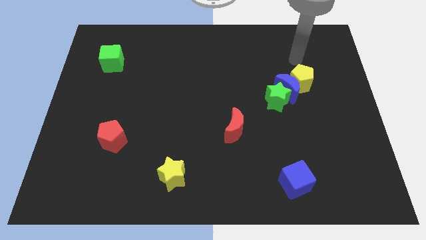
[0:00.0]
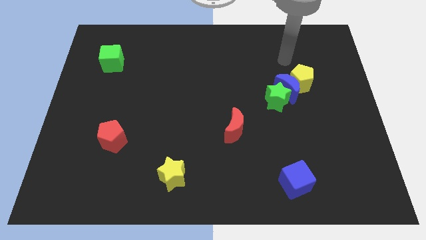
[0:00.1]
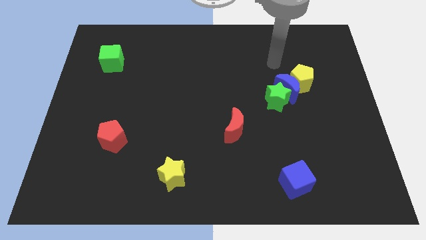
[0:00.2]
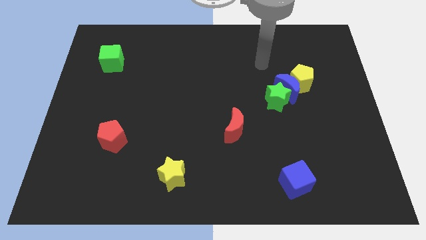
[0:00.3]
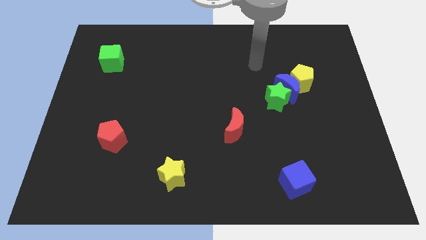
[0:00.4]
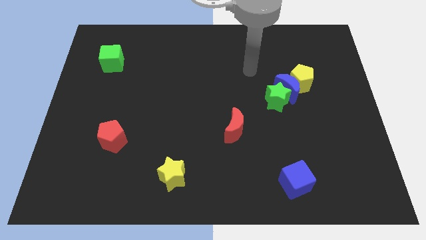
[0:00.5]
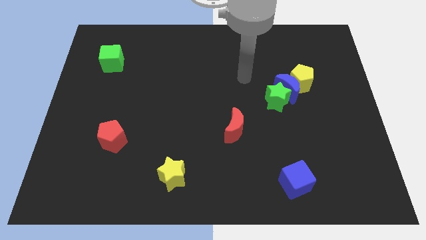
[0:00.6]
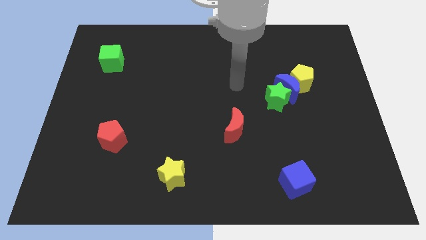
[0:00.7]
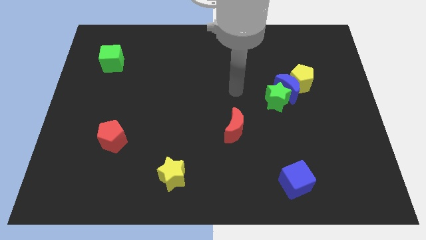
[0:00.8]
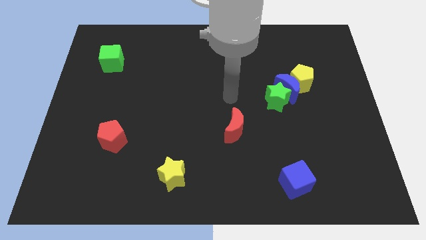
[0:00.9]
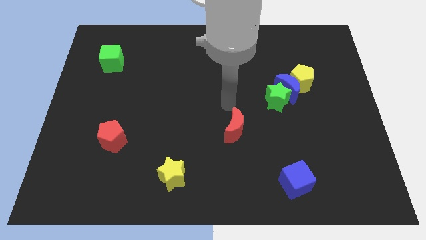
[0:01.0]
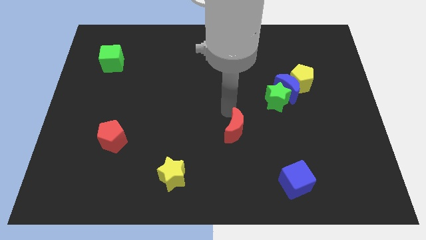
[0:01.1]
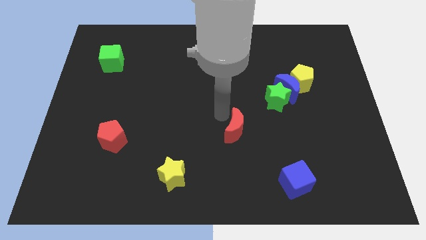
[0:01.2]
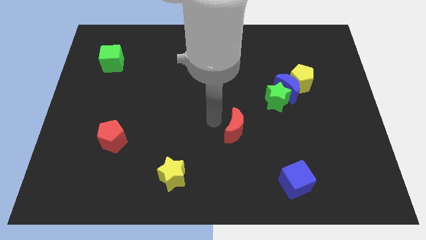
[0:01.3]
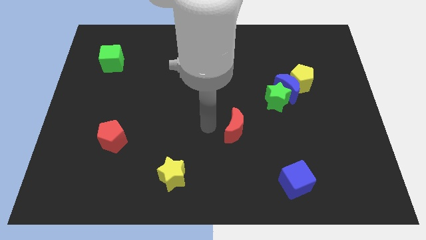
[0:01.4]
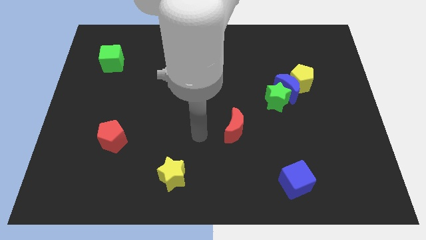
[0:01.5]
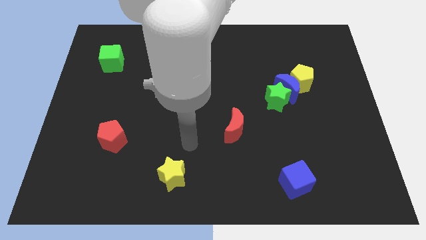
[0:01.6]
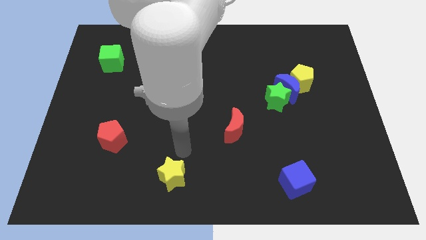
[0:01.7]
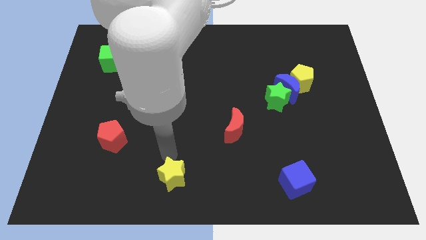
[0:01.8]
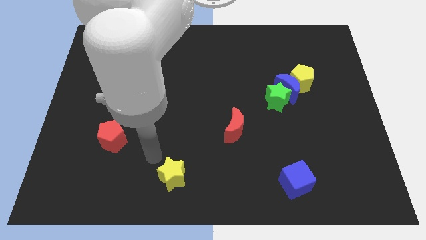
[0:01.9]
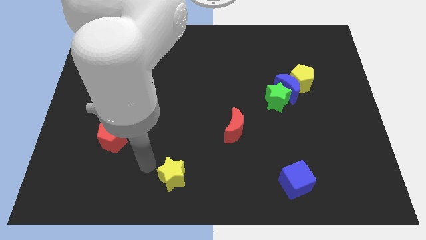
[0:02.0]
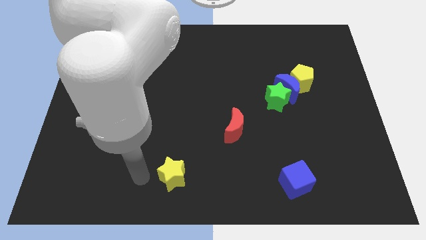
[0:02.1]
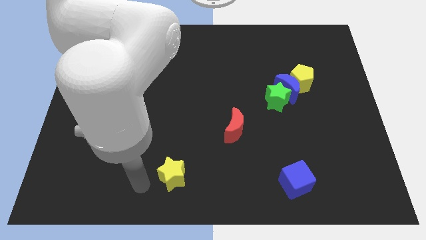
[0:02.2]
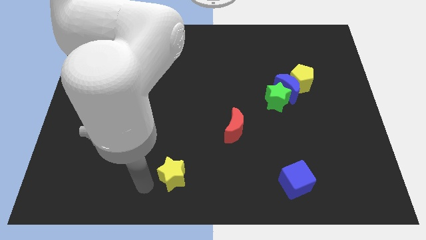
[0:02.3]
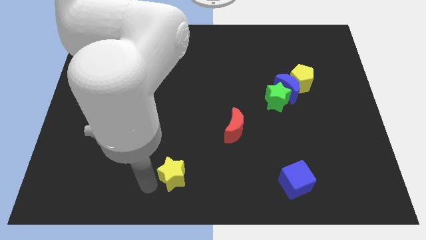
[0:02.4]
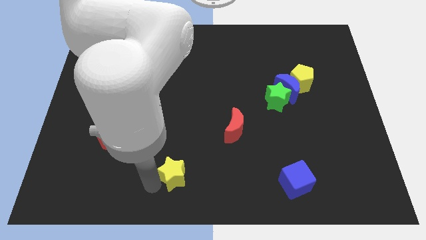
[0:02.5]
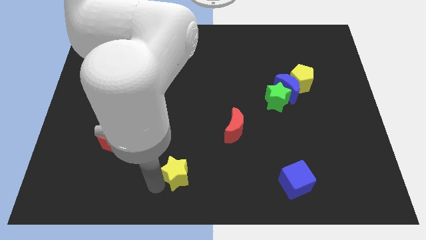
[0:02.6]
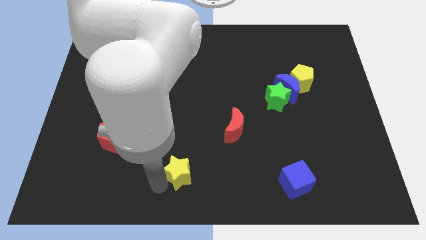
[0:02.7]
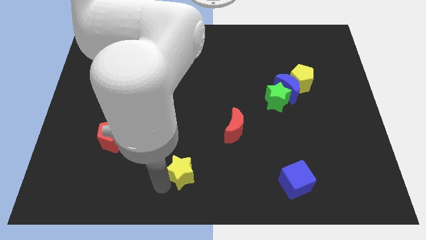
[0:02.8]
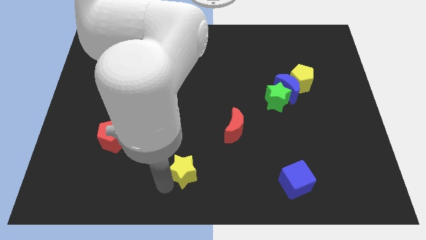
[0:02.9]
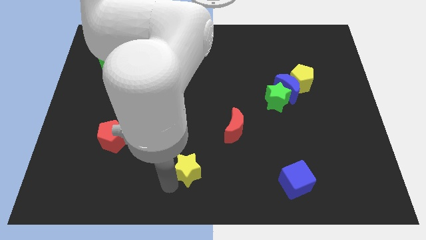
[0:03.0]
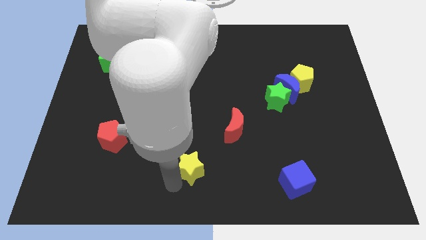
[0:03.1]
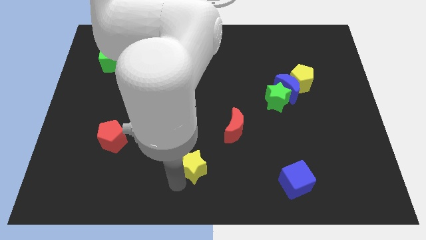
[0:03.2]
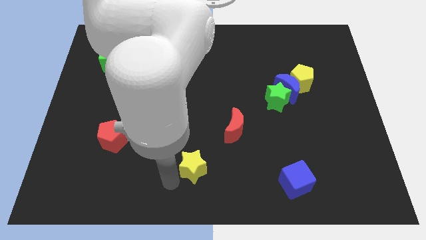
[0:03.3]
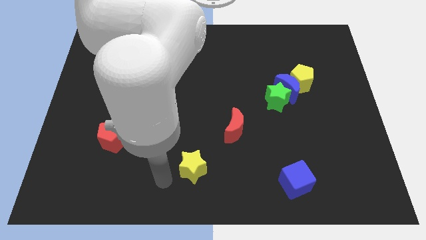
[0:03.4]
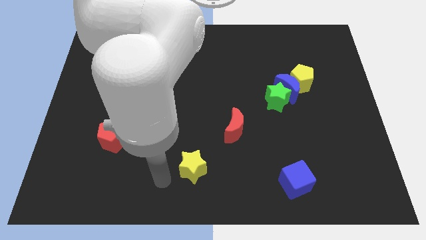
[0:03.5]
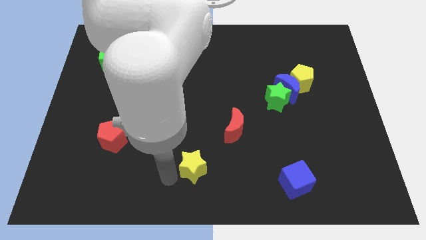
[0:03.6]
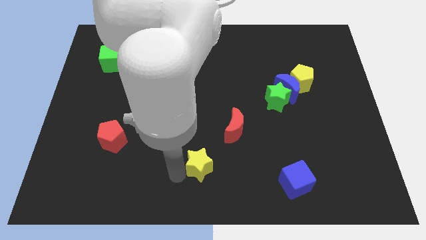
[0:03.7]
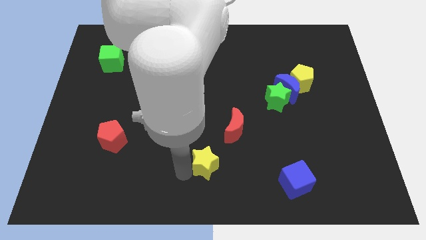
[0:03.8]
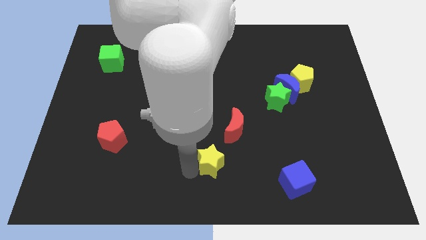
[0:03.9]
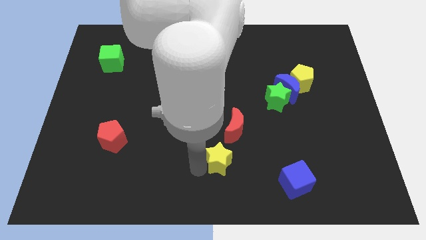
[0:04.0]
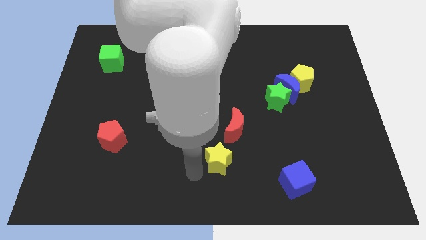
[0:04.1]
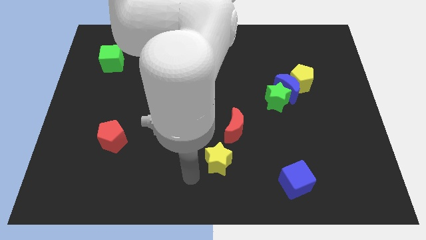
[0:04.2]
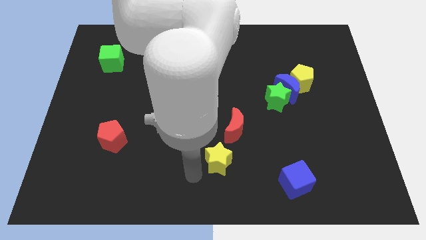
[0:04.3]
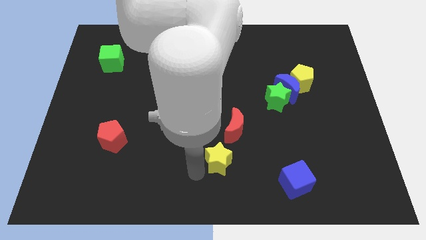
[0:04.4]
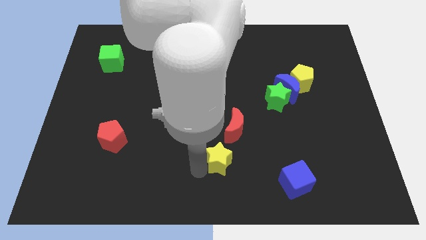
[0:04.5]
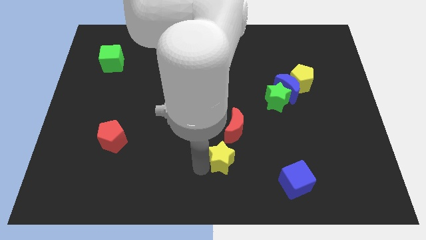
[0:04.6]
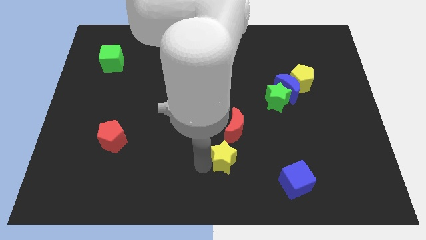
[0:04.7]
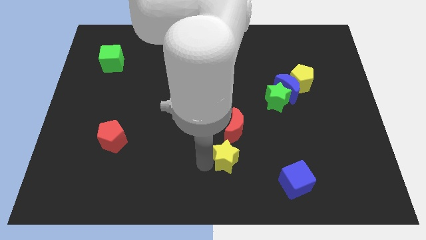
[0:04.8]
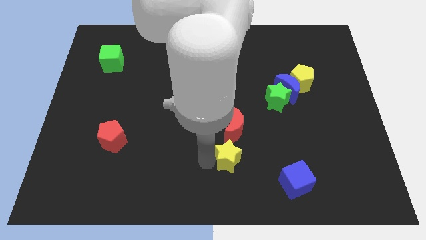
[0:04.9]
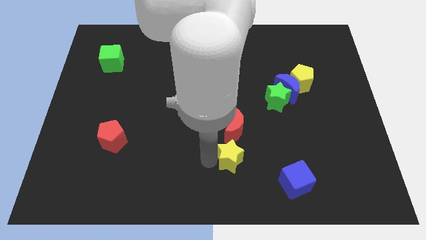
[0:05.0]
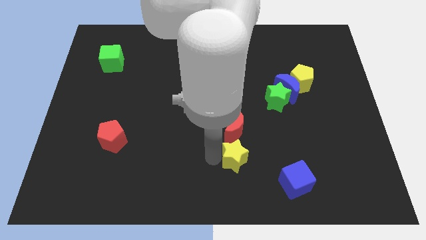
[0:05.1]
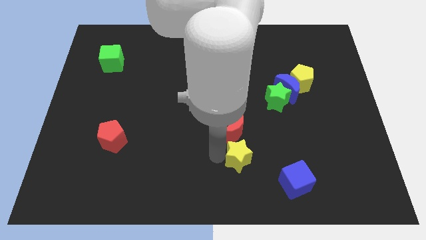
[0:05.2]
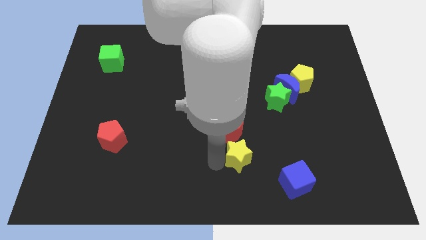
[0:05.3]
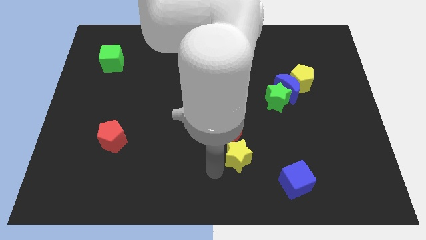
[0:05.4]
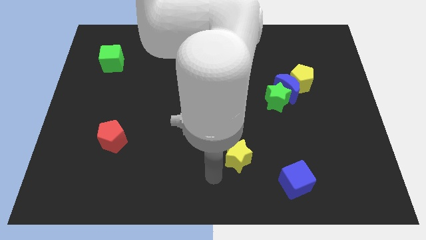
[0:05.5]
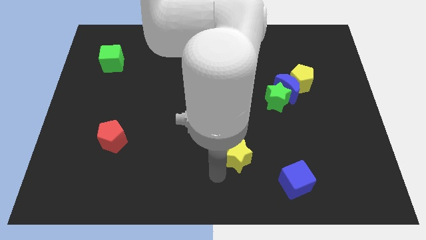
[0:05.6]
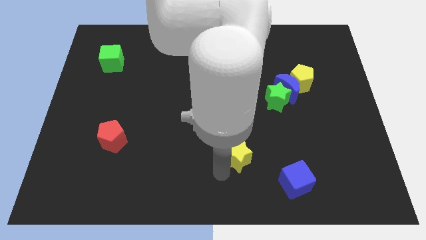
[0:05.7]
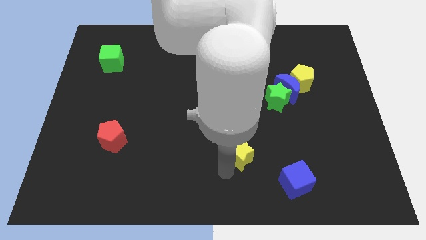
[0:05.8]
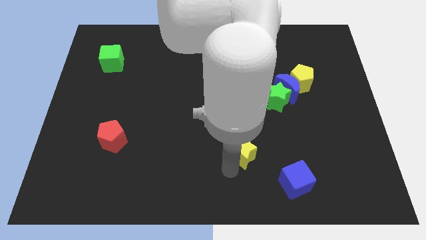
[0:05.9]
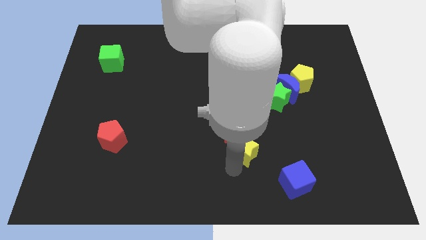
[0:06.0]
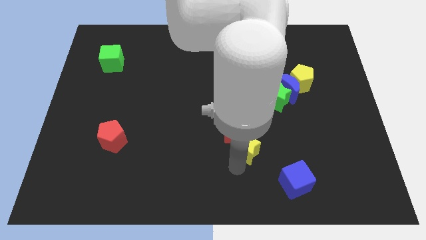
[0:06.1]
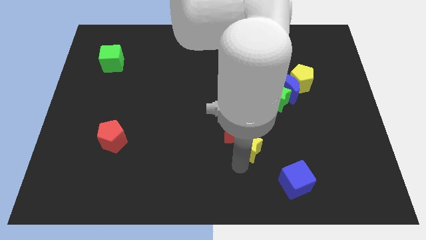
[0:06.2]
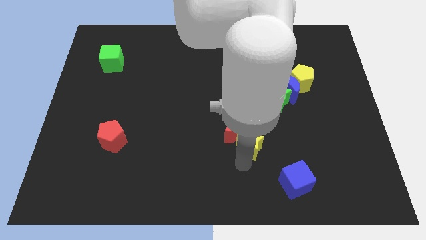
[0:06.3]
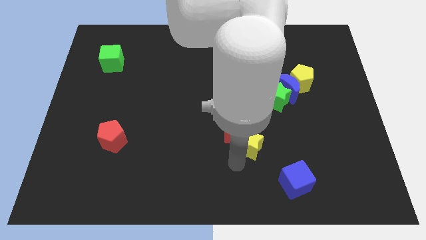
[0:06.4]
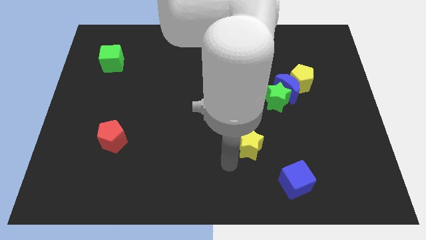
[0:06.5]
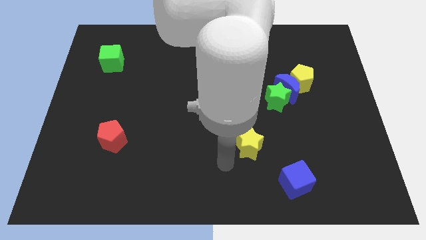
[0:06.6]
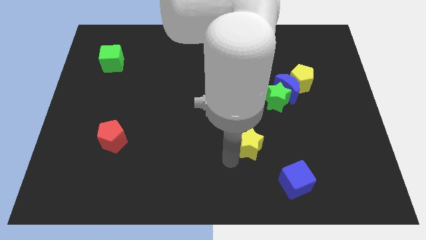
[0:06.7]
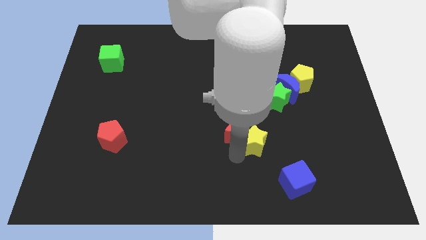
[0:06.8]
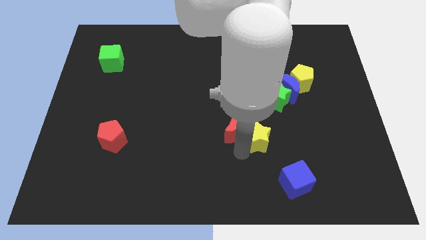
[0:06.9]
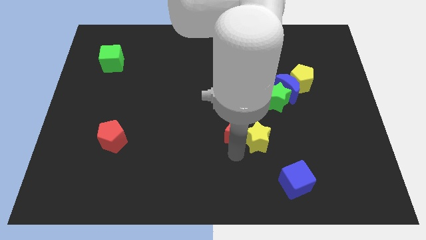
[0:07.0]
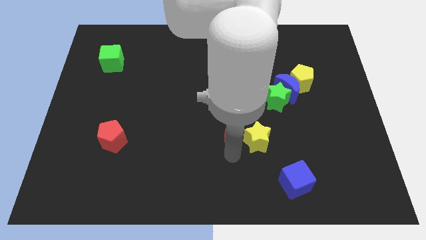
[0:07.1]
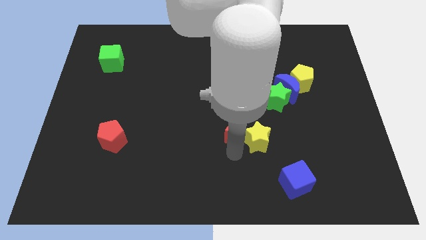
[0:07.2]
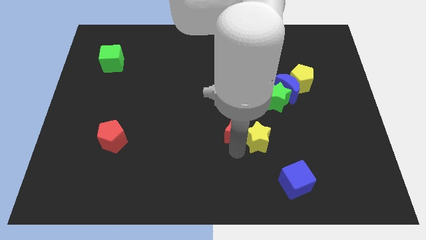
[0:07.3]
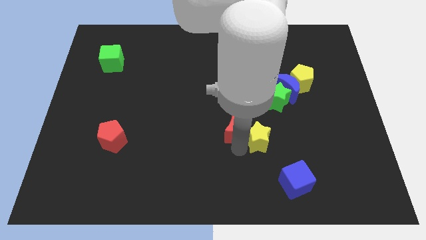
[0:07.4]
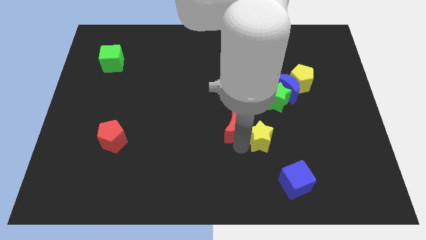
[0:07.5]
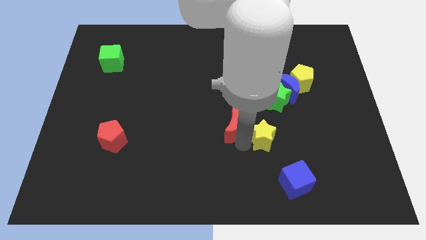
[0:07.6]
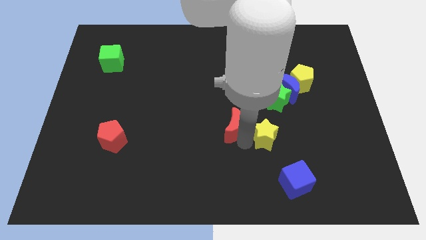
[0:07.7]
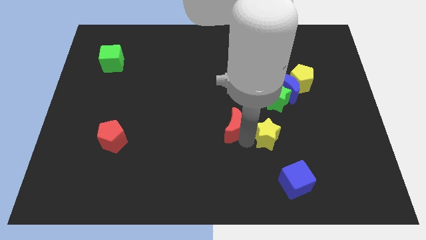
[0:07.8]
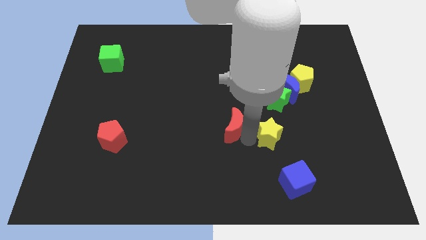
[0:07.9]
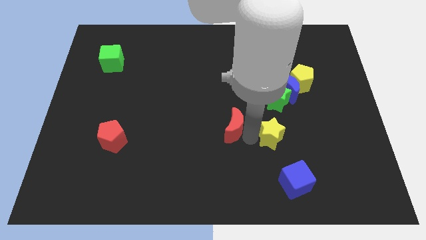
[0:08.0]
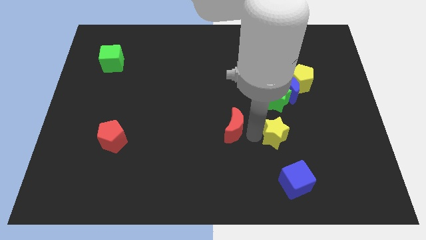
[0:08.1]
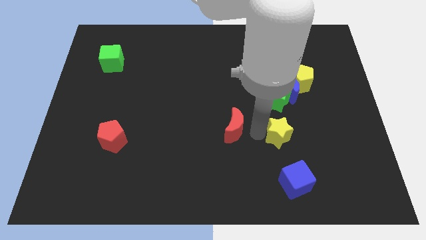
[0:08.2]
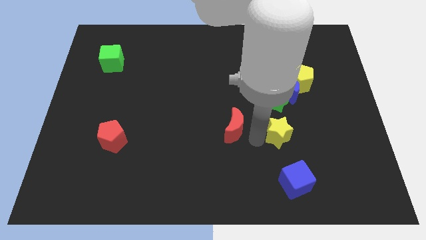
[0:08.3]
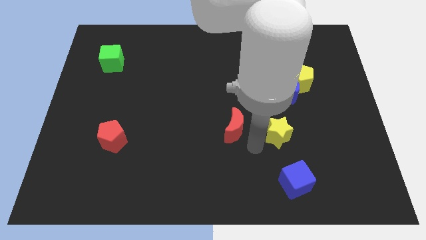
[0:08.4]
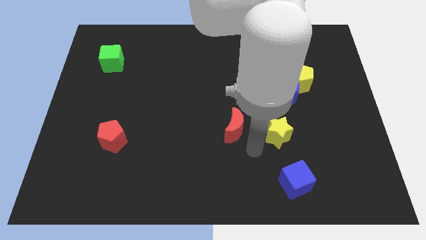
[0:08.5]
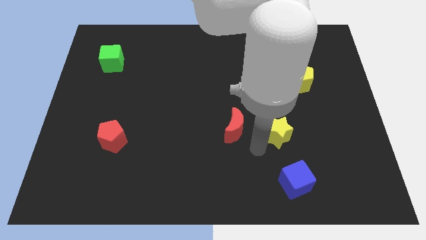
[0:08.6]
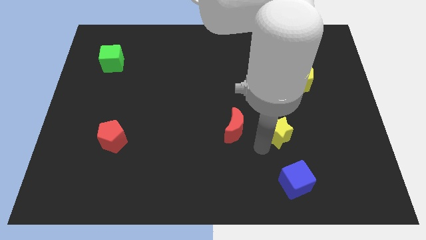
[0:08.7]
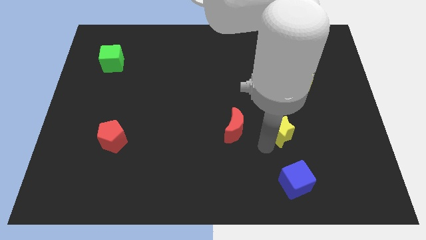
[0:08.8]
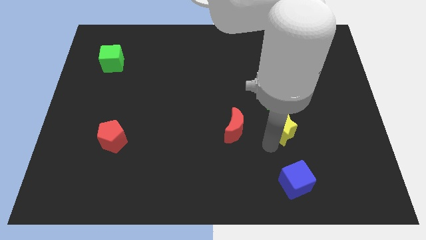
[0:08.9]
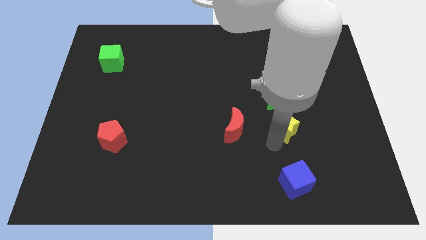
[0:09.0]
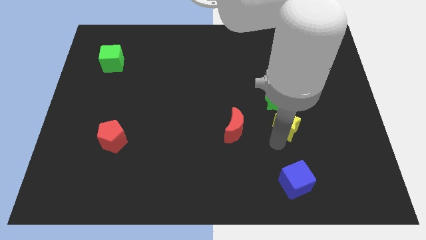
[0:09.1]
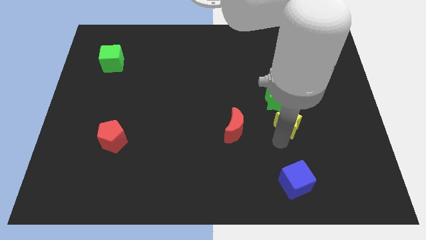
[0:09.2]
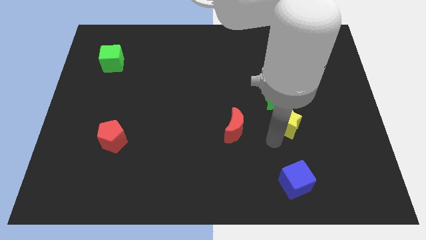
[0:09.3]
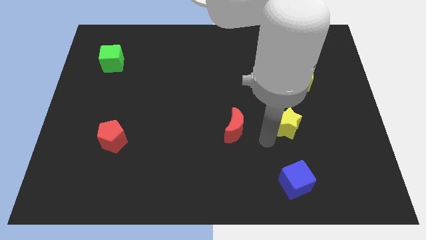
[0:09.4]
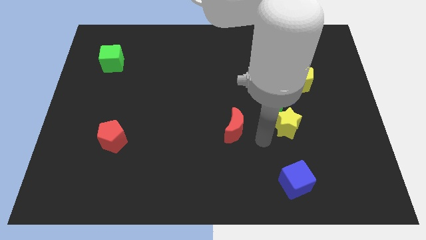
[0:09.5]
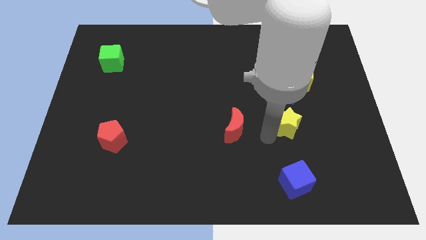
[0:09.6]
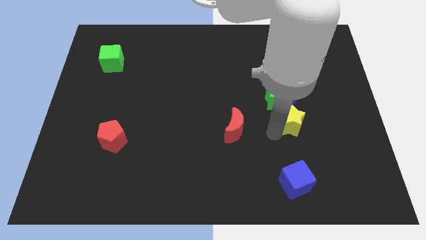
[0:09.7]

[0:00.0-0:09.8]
push the yellow star to the bottom of the yellow pentagon
